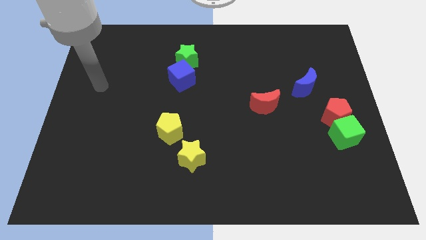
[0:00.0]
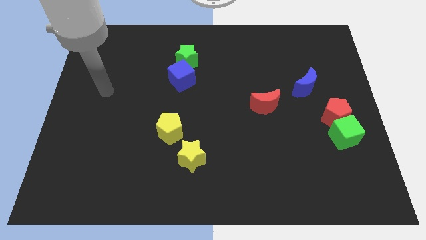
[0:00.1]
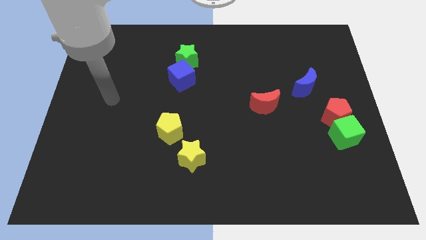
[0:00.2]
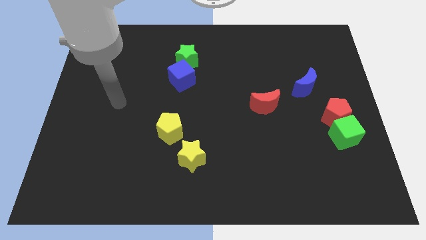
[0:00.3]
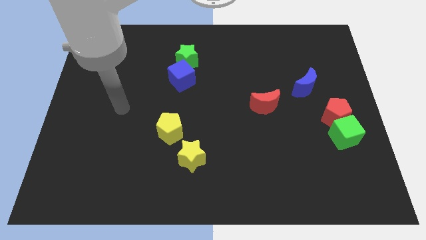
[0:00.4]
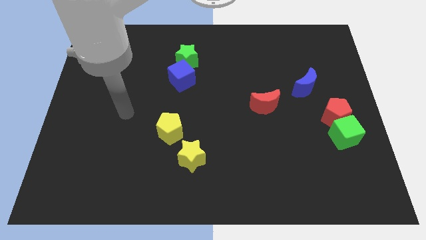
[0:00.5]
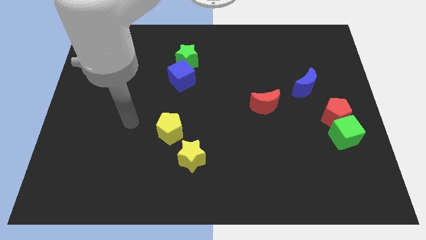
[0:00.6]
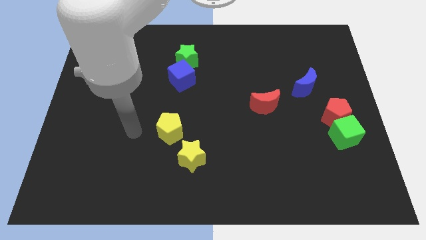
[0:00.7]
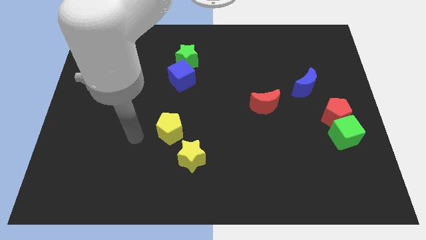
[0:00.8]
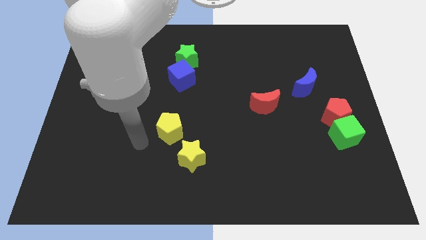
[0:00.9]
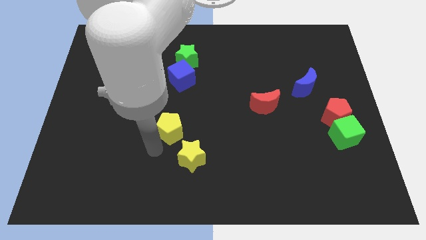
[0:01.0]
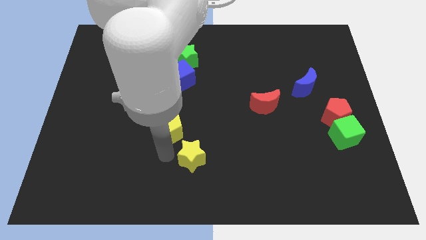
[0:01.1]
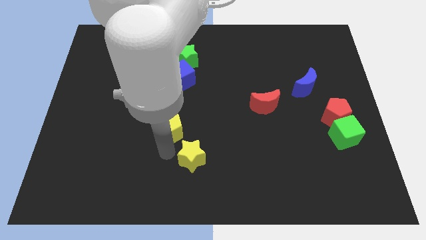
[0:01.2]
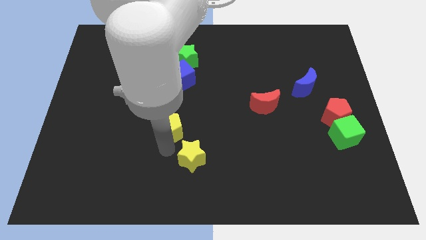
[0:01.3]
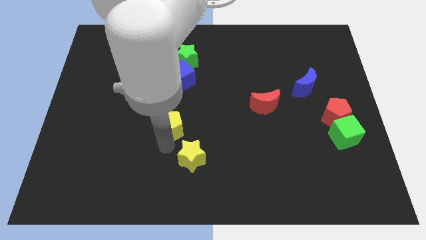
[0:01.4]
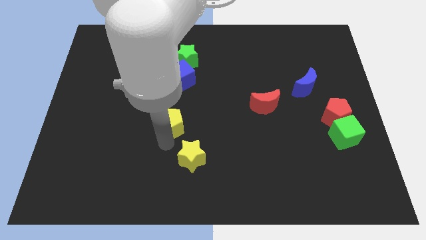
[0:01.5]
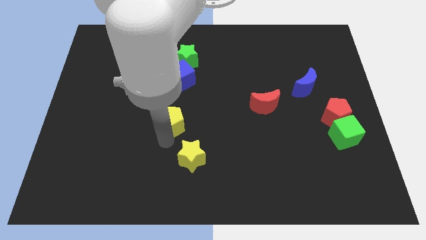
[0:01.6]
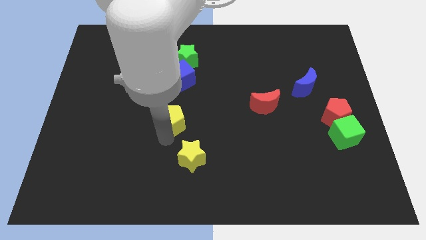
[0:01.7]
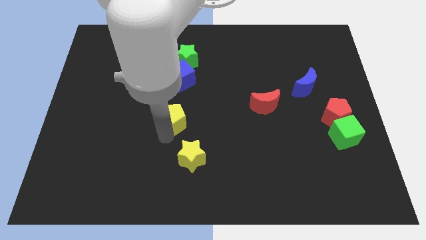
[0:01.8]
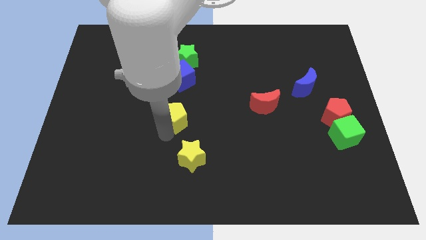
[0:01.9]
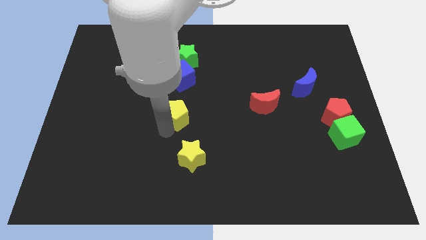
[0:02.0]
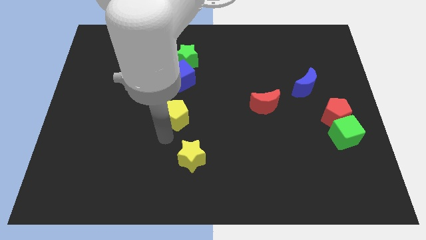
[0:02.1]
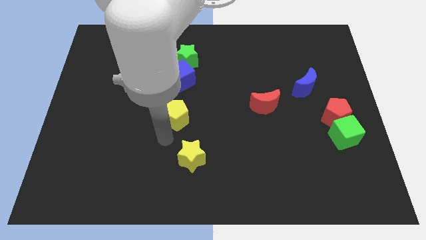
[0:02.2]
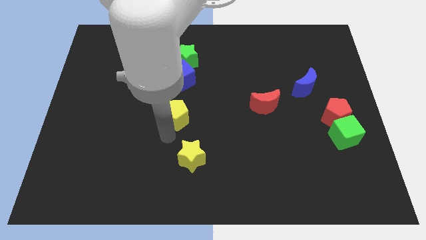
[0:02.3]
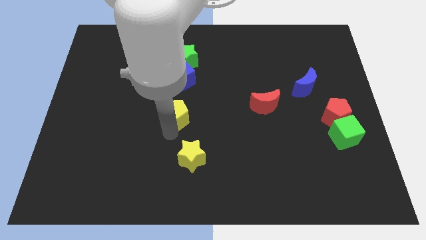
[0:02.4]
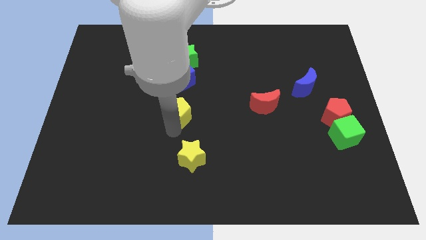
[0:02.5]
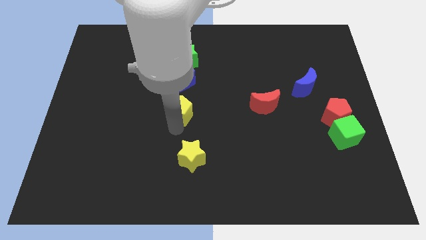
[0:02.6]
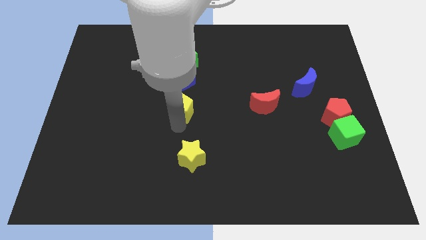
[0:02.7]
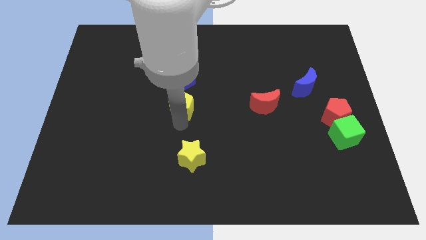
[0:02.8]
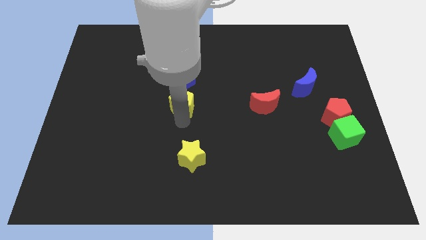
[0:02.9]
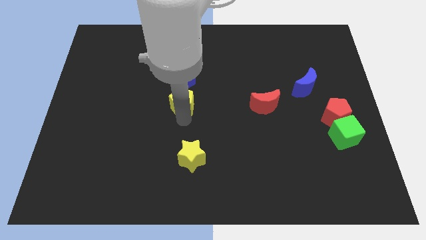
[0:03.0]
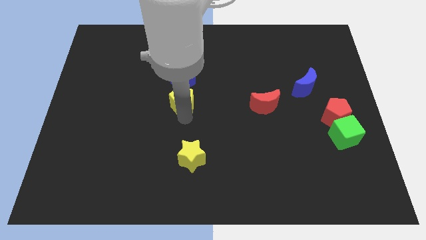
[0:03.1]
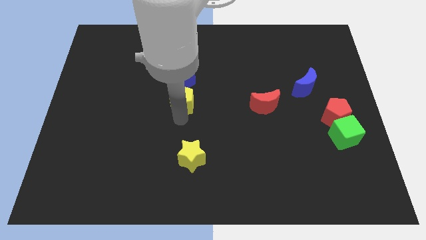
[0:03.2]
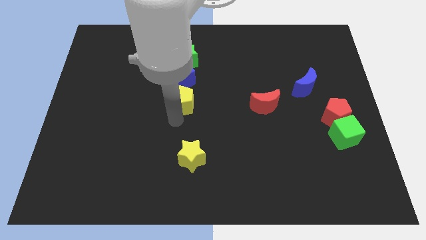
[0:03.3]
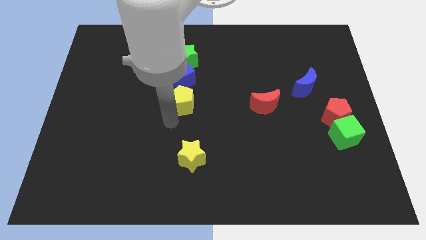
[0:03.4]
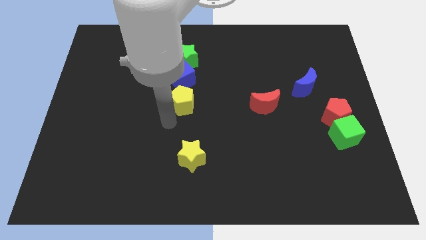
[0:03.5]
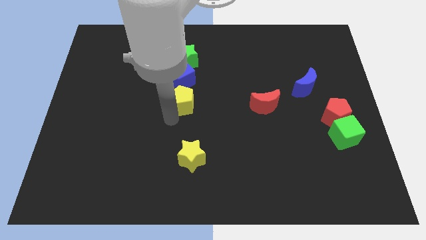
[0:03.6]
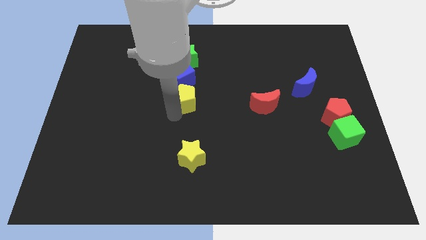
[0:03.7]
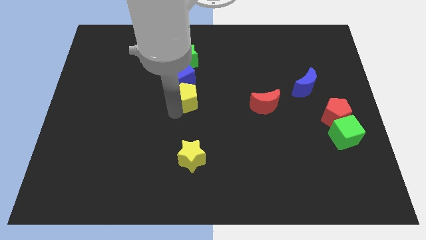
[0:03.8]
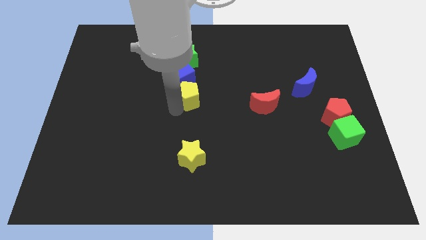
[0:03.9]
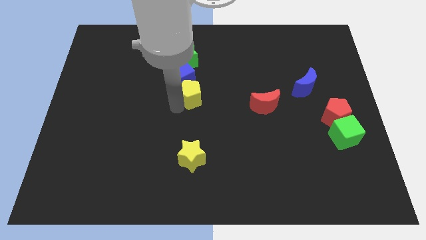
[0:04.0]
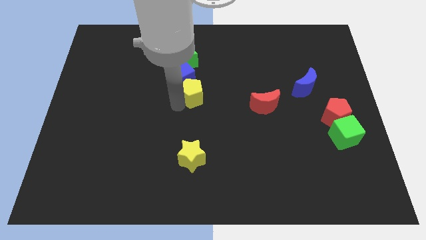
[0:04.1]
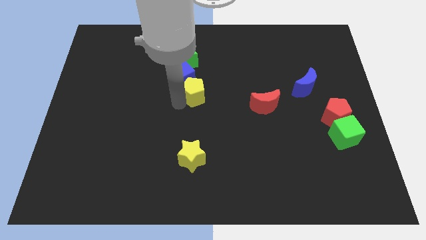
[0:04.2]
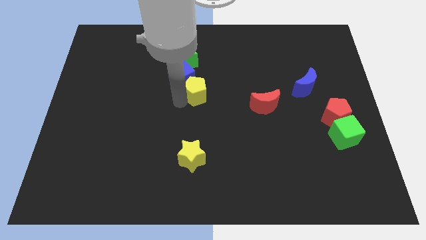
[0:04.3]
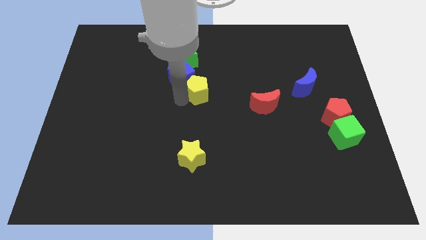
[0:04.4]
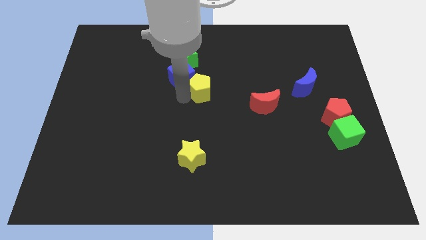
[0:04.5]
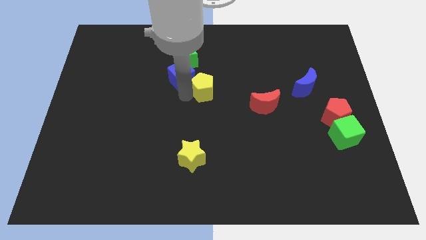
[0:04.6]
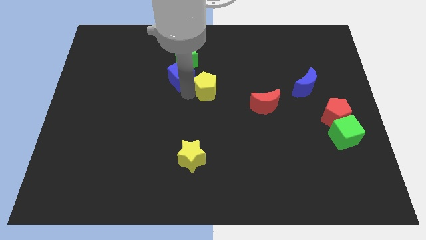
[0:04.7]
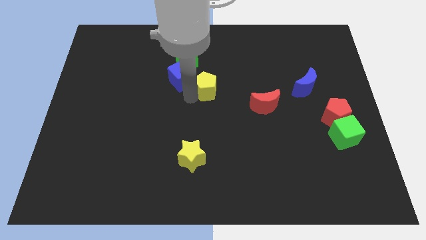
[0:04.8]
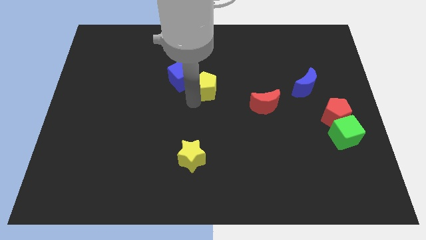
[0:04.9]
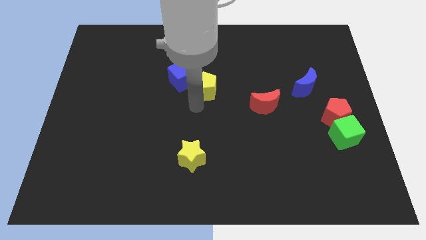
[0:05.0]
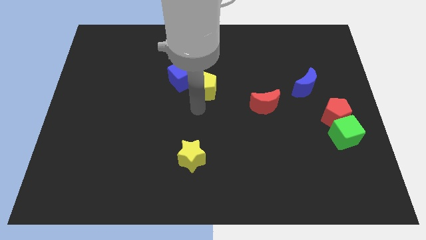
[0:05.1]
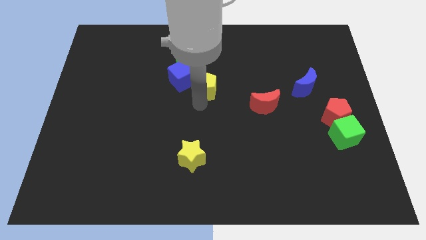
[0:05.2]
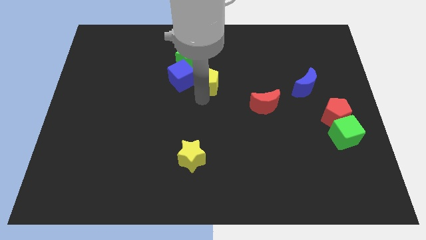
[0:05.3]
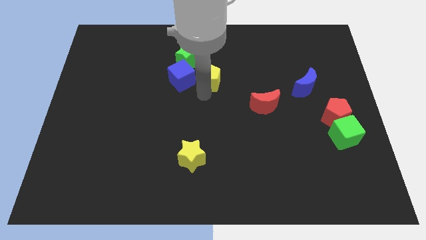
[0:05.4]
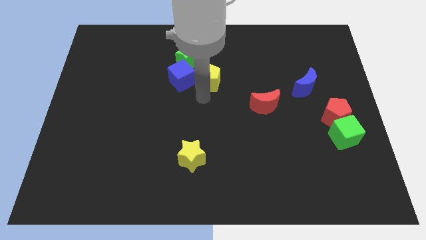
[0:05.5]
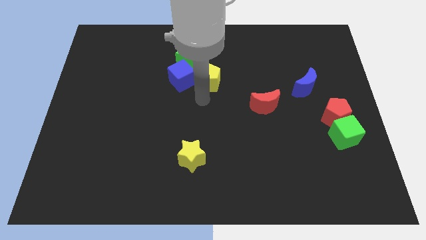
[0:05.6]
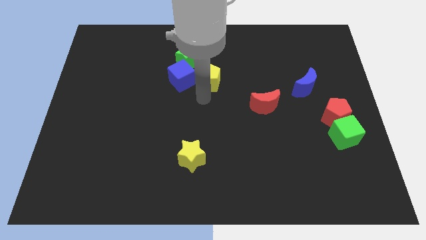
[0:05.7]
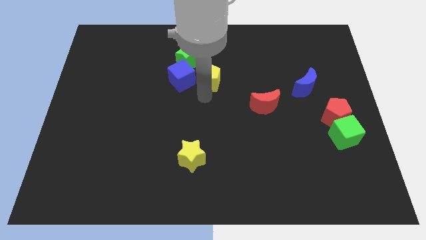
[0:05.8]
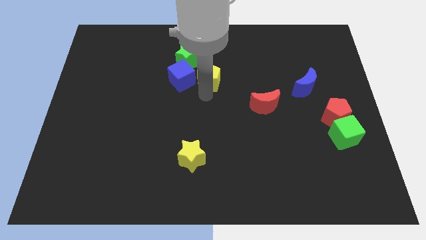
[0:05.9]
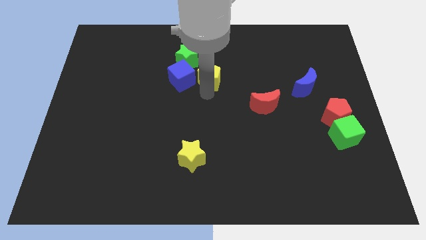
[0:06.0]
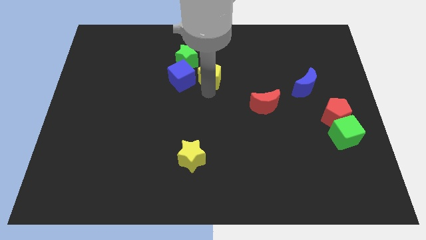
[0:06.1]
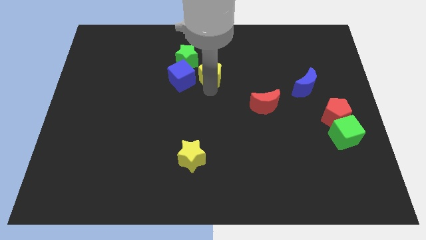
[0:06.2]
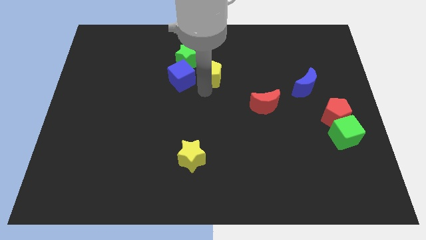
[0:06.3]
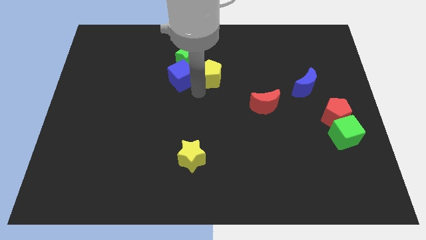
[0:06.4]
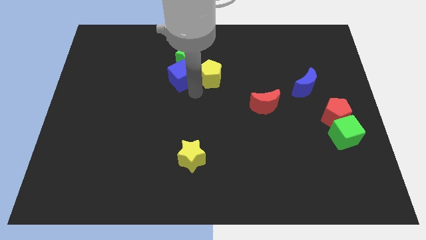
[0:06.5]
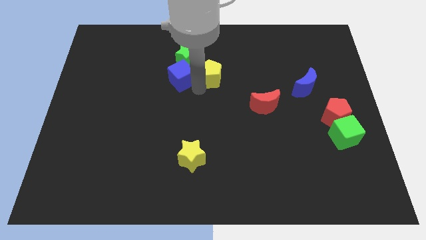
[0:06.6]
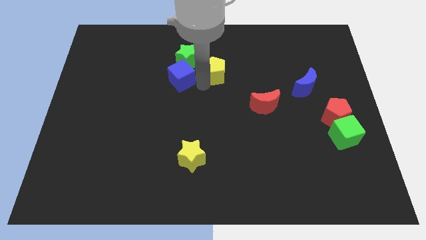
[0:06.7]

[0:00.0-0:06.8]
move the yellow pentagon right of the green star

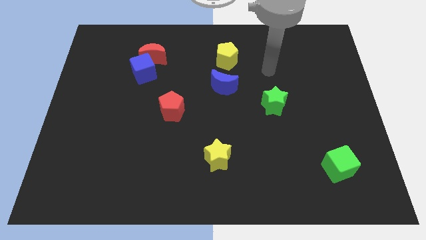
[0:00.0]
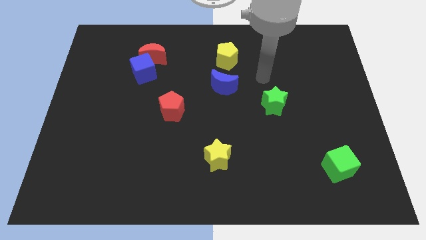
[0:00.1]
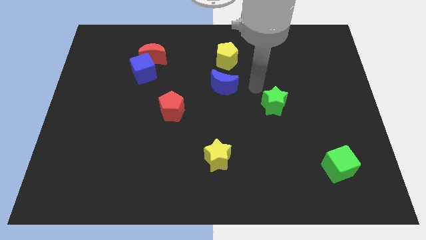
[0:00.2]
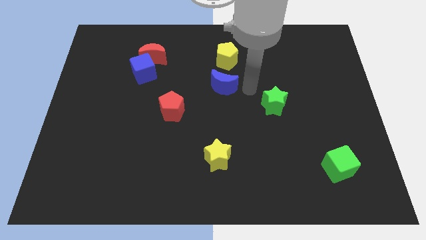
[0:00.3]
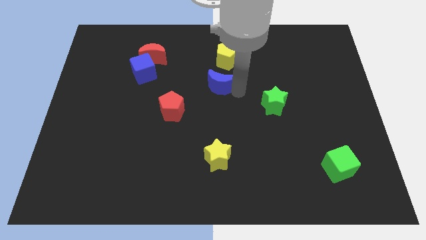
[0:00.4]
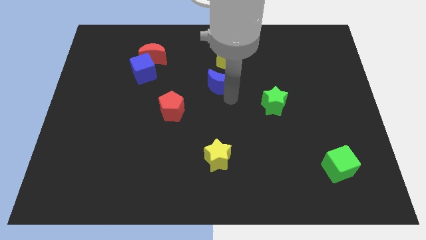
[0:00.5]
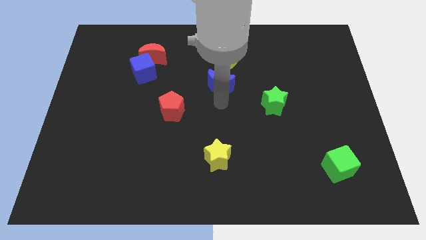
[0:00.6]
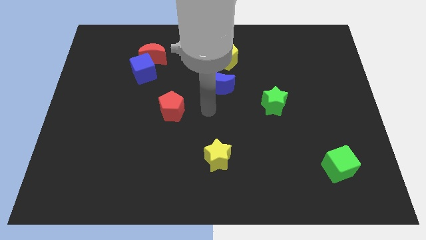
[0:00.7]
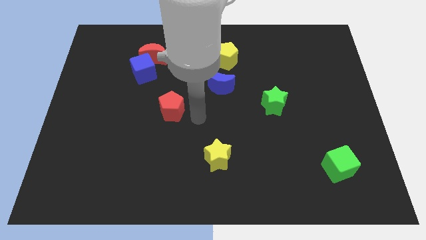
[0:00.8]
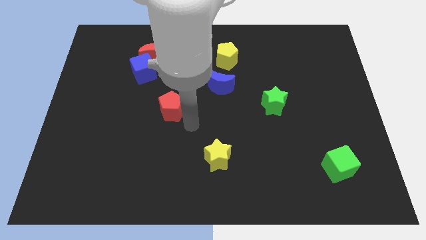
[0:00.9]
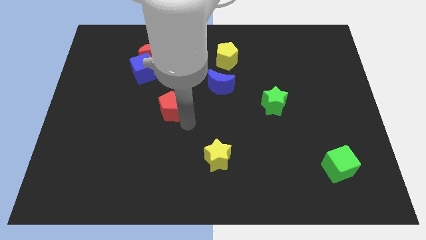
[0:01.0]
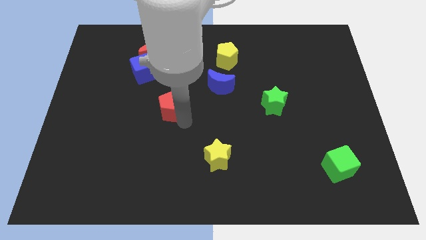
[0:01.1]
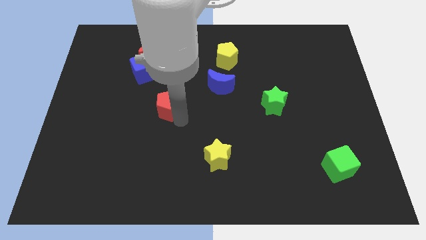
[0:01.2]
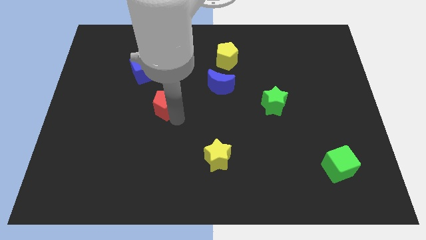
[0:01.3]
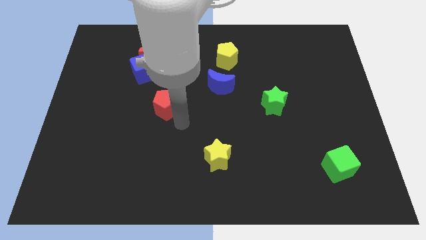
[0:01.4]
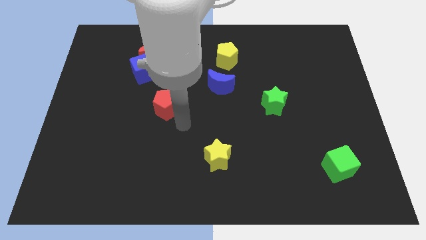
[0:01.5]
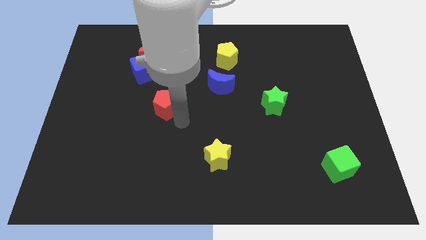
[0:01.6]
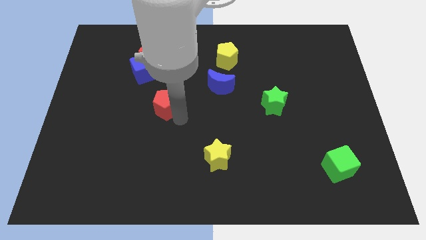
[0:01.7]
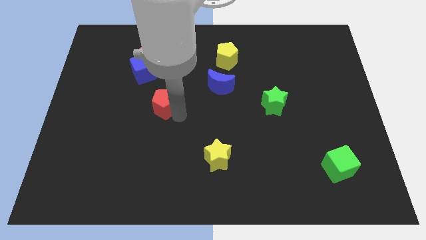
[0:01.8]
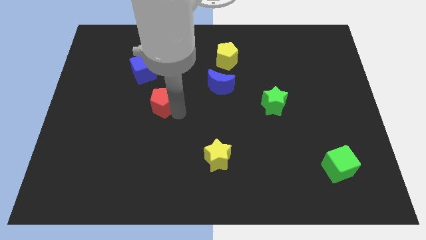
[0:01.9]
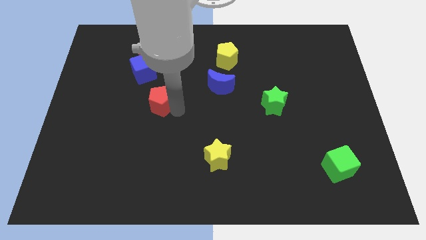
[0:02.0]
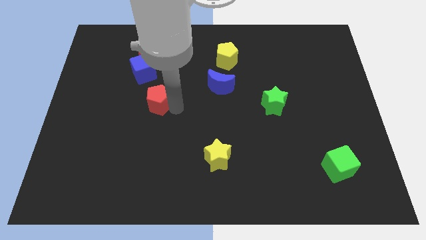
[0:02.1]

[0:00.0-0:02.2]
move the red pentagon to the bottom side of the red moon
